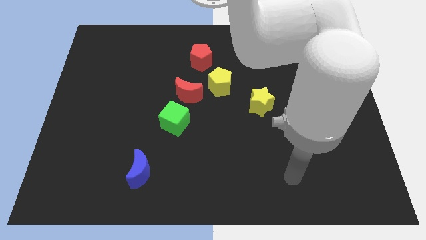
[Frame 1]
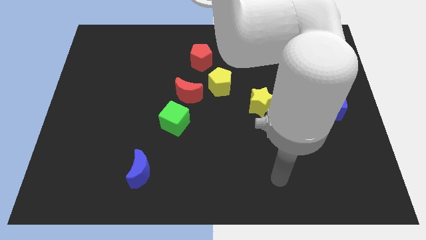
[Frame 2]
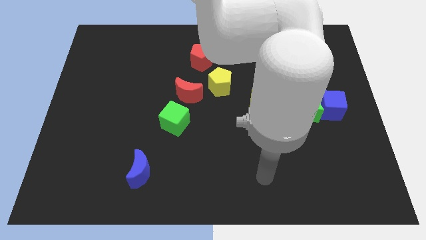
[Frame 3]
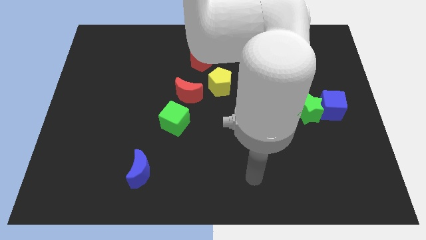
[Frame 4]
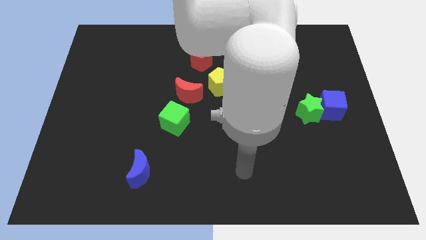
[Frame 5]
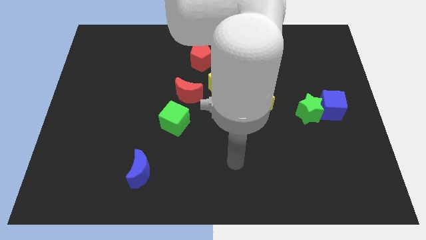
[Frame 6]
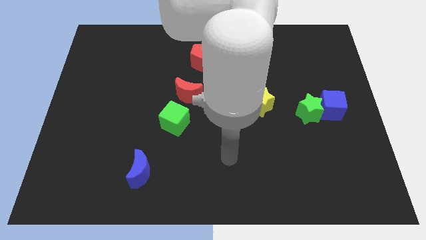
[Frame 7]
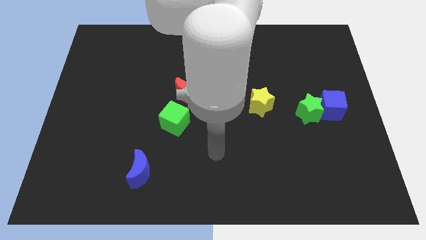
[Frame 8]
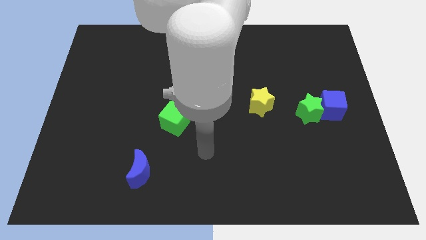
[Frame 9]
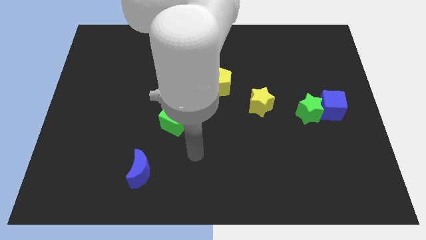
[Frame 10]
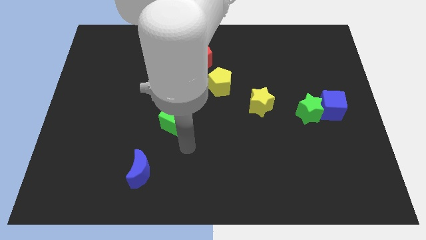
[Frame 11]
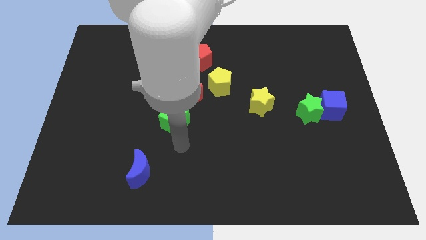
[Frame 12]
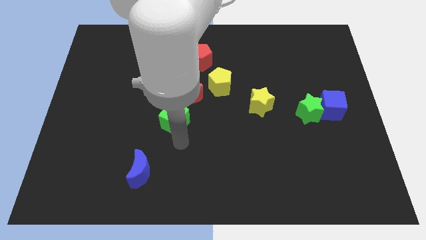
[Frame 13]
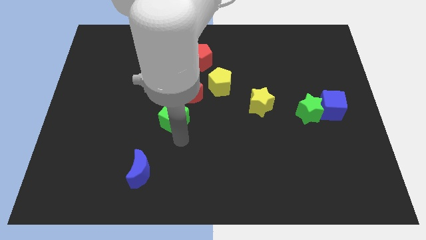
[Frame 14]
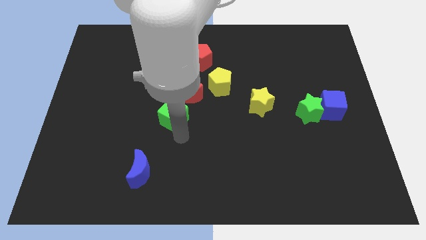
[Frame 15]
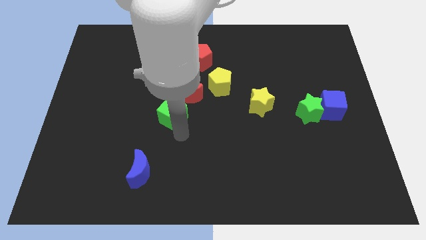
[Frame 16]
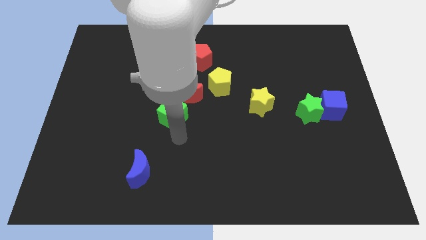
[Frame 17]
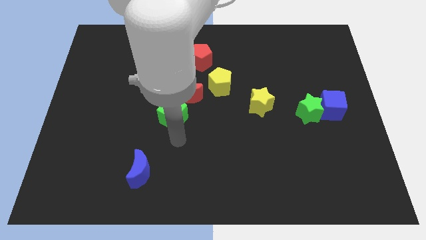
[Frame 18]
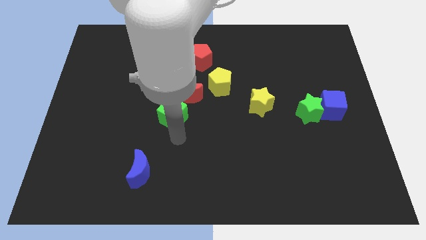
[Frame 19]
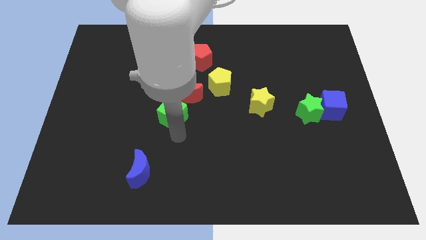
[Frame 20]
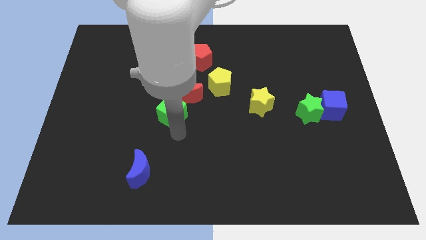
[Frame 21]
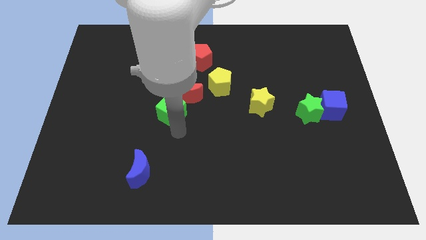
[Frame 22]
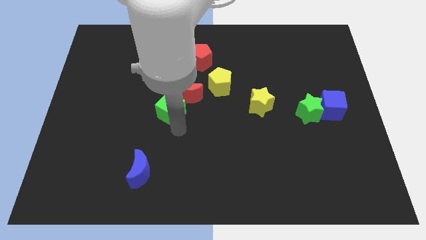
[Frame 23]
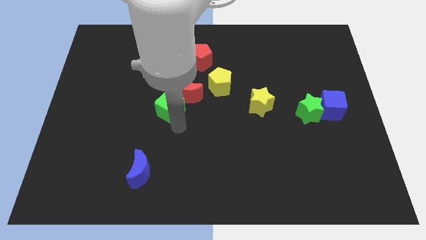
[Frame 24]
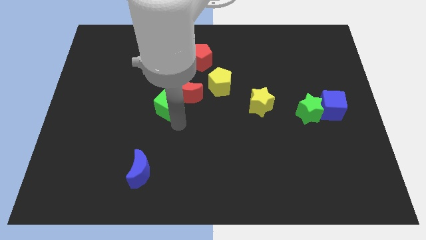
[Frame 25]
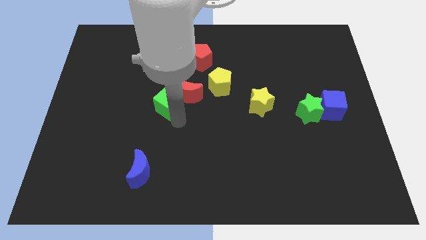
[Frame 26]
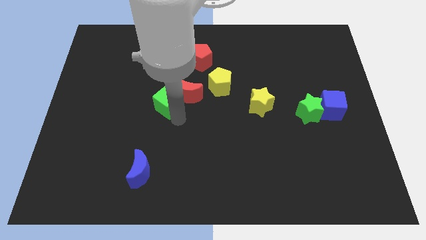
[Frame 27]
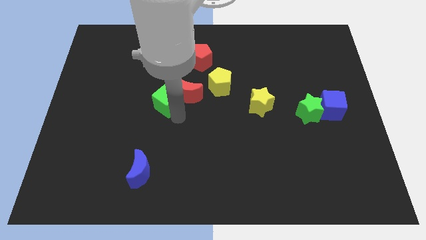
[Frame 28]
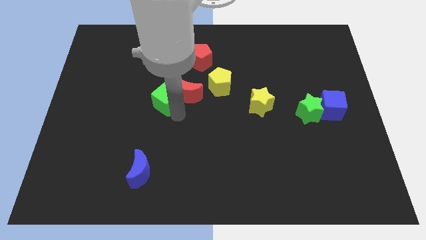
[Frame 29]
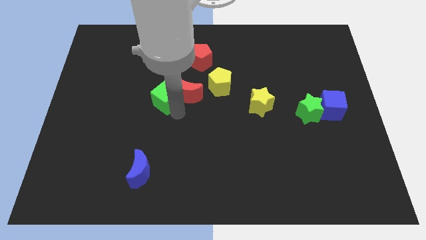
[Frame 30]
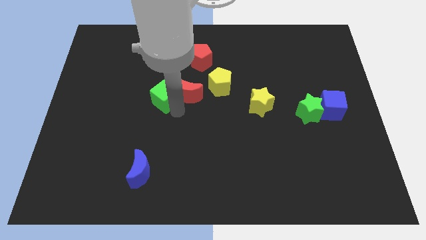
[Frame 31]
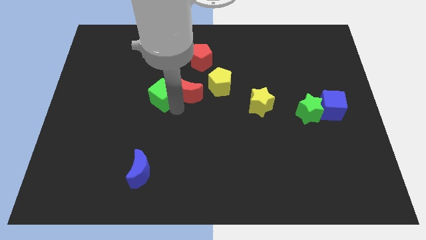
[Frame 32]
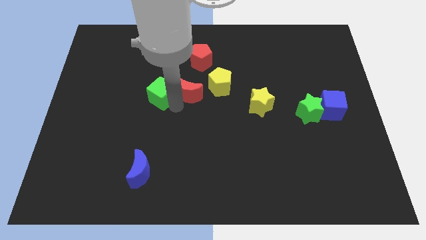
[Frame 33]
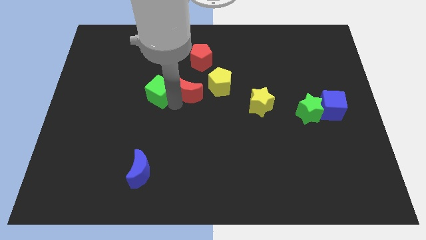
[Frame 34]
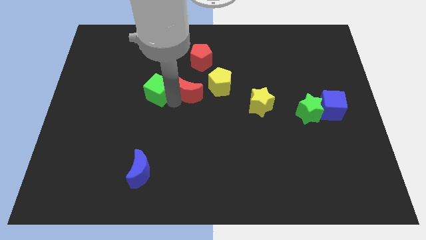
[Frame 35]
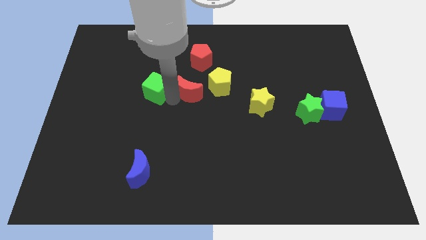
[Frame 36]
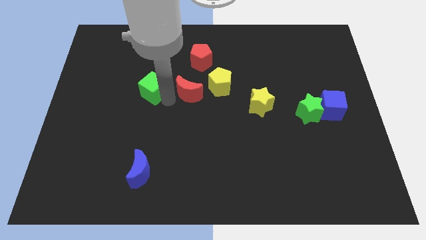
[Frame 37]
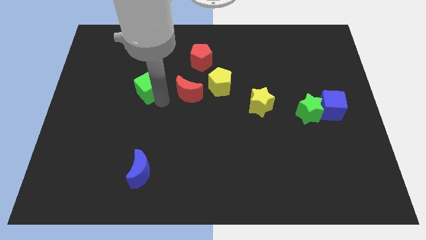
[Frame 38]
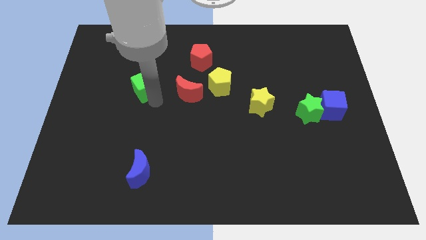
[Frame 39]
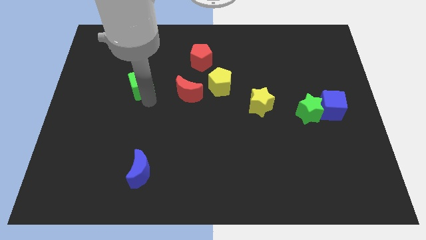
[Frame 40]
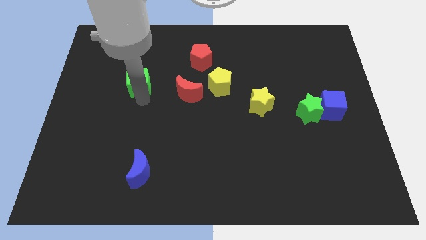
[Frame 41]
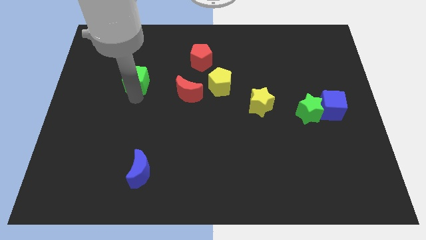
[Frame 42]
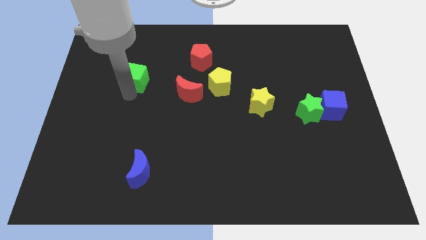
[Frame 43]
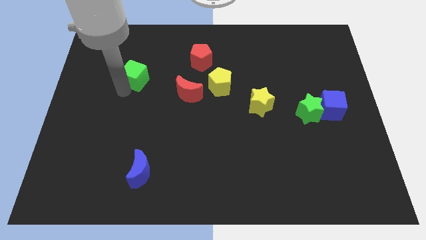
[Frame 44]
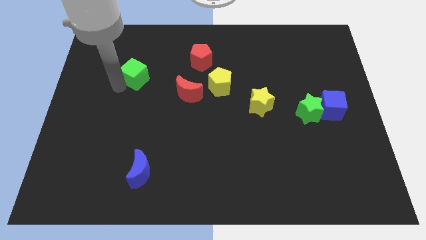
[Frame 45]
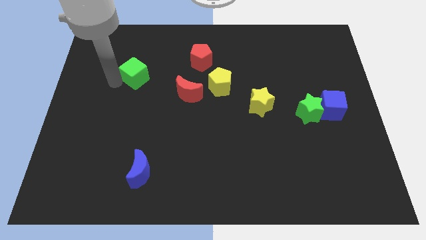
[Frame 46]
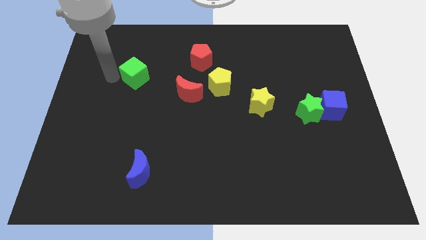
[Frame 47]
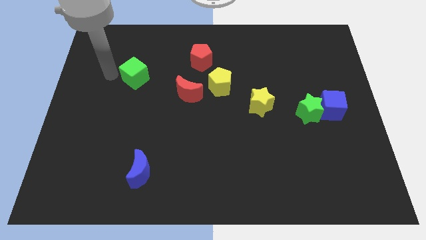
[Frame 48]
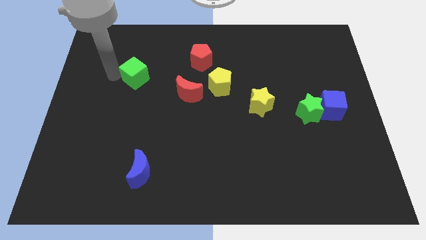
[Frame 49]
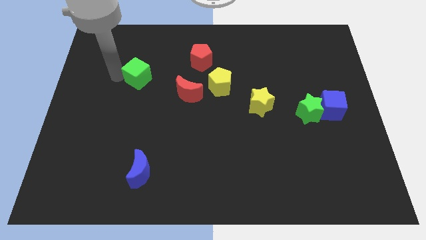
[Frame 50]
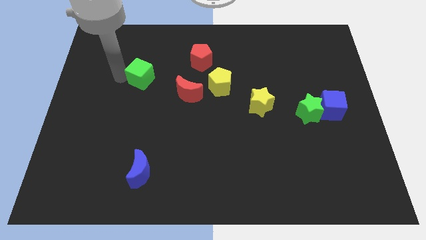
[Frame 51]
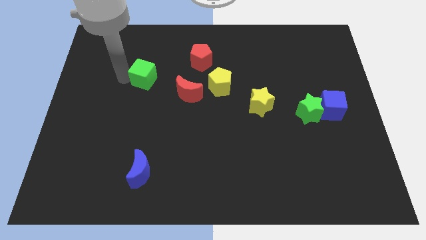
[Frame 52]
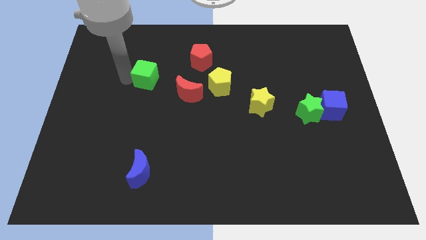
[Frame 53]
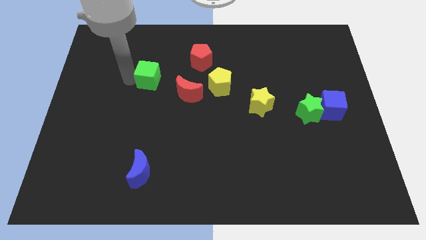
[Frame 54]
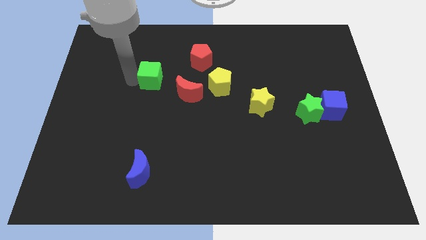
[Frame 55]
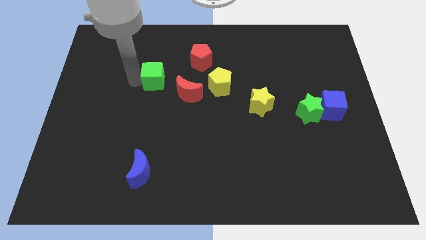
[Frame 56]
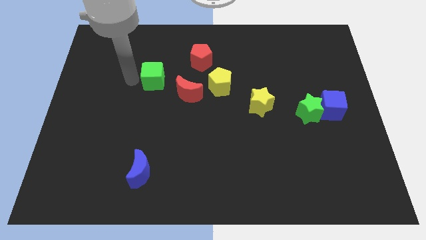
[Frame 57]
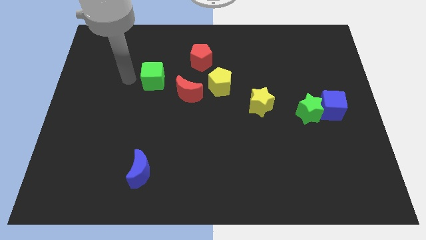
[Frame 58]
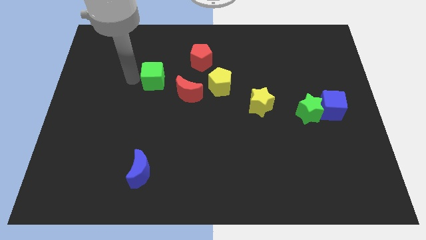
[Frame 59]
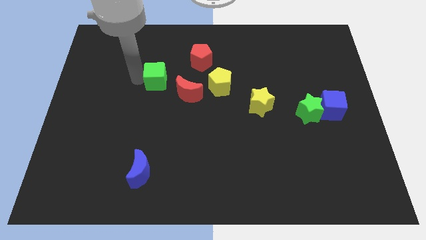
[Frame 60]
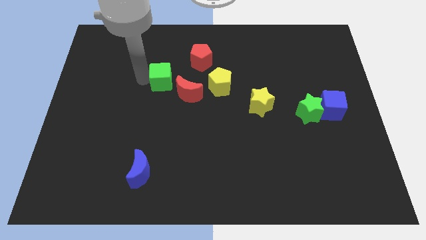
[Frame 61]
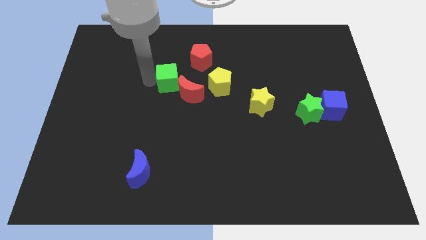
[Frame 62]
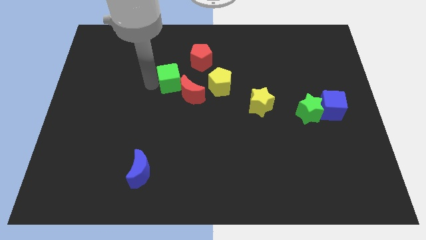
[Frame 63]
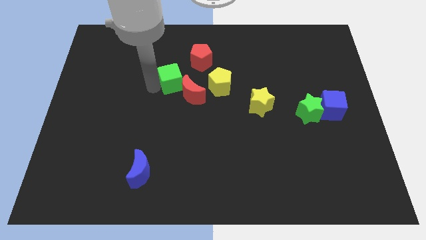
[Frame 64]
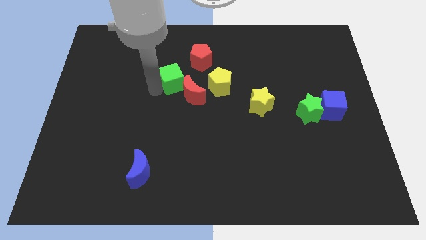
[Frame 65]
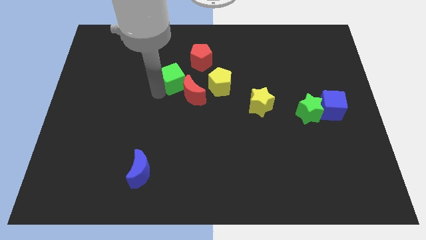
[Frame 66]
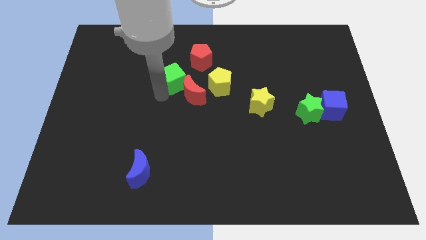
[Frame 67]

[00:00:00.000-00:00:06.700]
push the green cube to the top side of the red moon

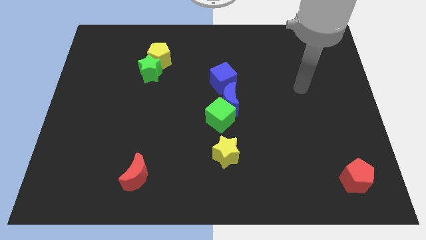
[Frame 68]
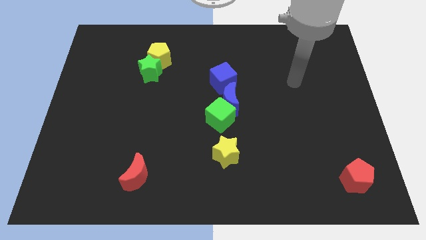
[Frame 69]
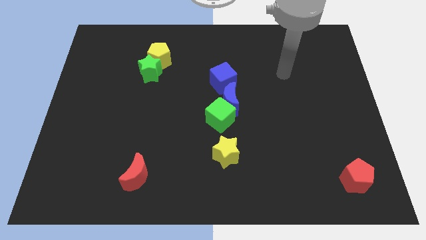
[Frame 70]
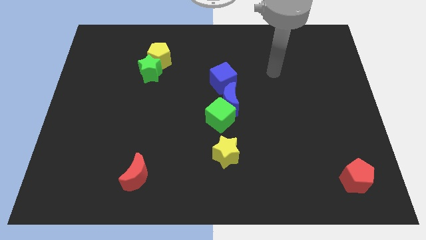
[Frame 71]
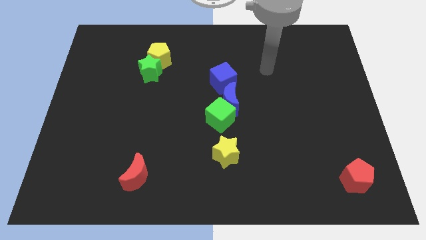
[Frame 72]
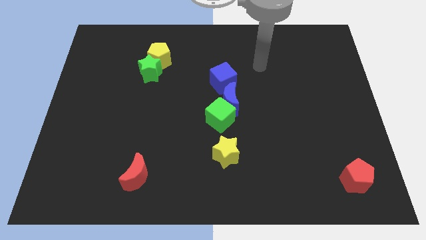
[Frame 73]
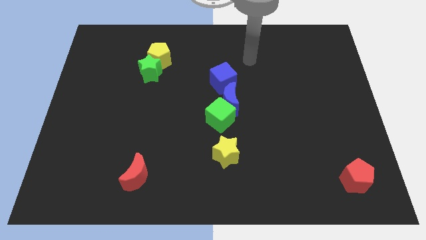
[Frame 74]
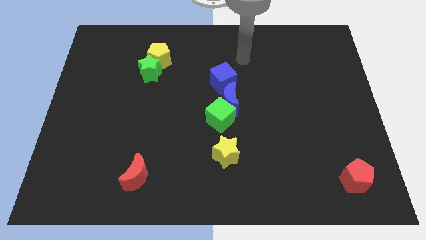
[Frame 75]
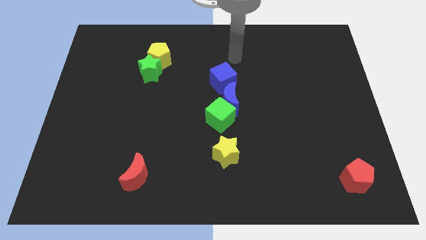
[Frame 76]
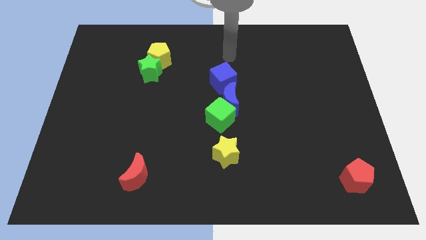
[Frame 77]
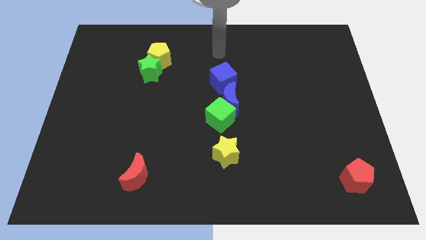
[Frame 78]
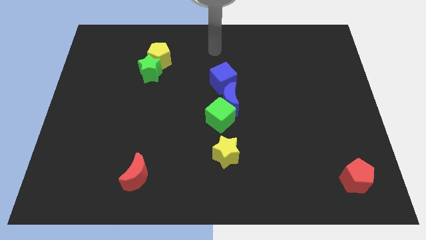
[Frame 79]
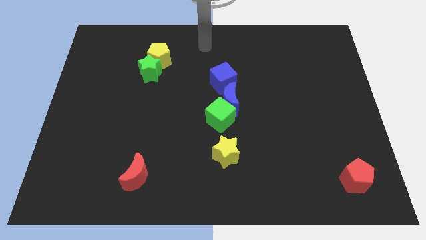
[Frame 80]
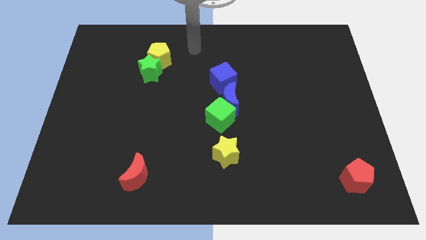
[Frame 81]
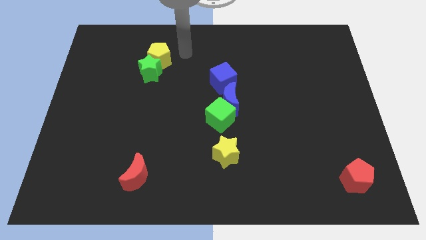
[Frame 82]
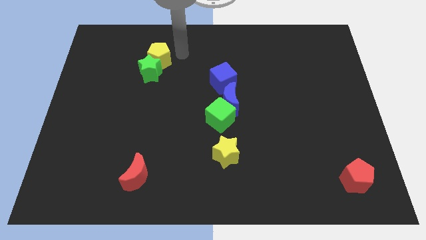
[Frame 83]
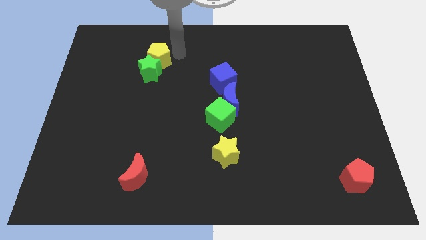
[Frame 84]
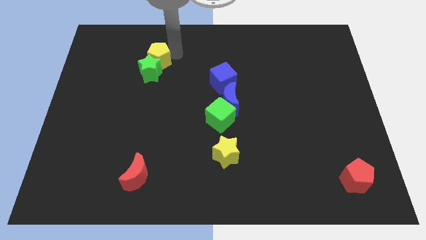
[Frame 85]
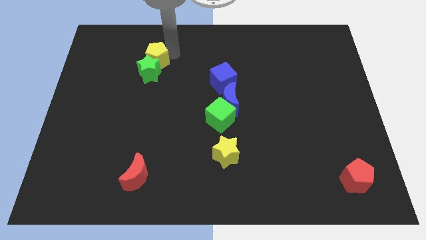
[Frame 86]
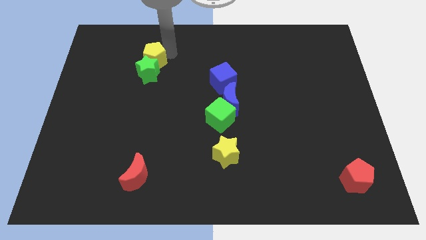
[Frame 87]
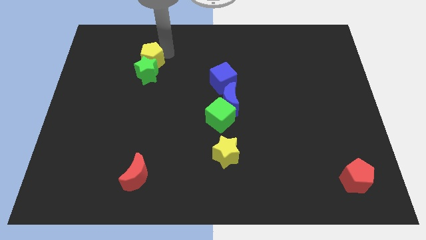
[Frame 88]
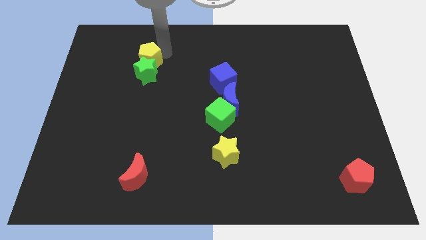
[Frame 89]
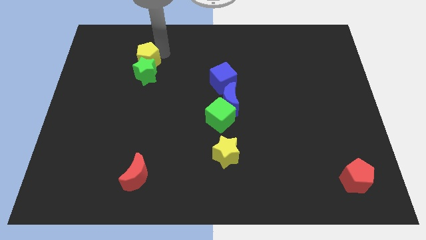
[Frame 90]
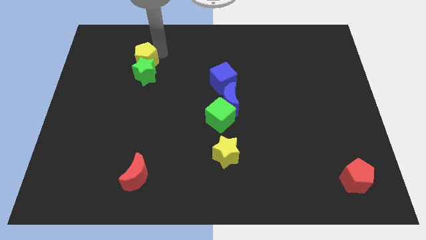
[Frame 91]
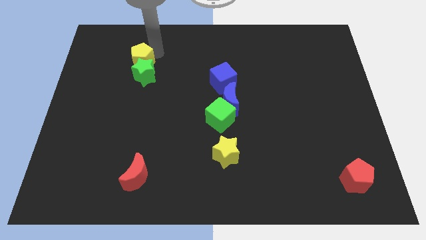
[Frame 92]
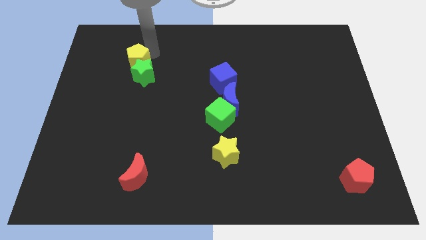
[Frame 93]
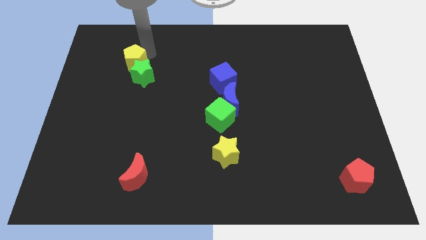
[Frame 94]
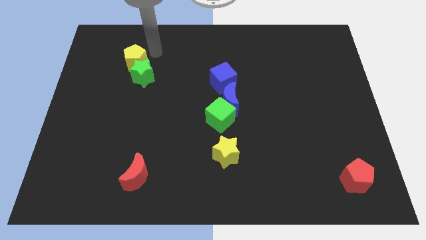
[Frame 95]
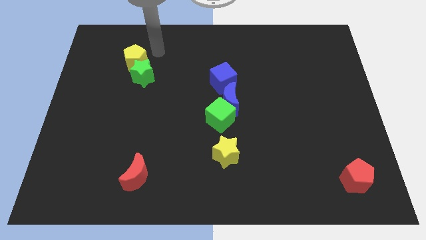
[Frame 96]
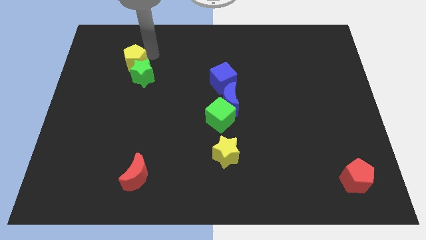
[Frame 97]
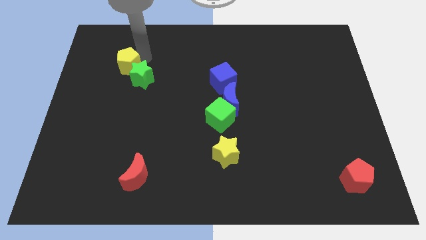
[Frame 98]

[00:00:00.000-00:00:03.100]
push the yellow pentagon to the left of the green star
